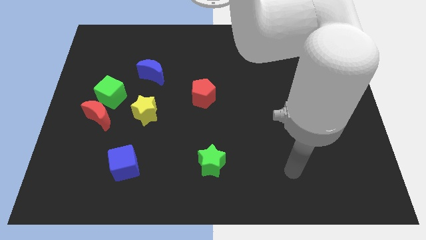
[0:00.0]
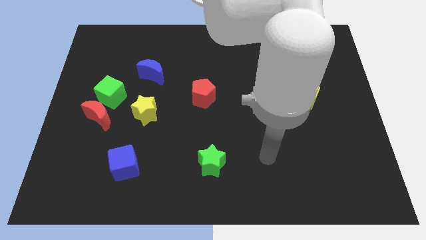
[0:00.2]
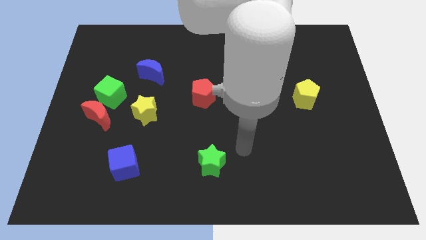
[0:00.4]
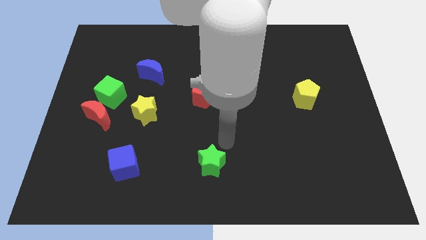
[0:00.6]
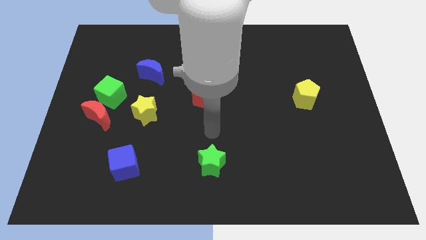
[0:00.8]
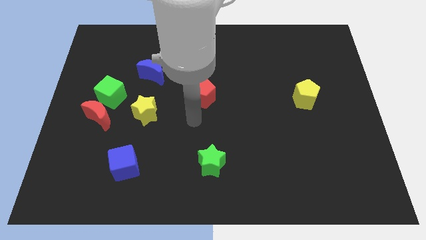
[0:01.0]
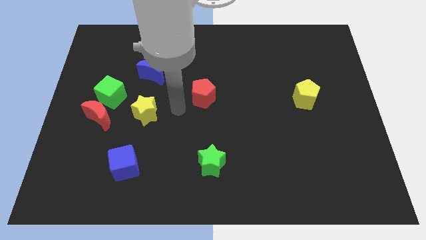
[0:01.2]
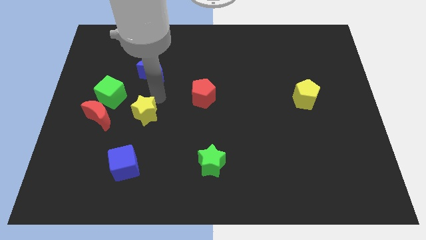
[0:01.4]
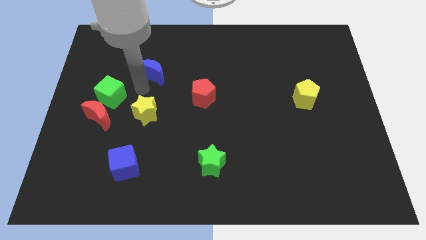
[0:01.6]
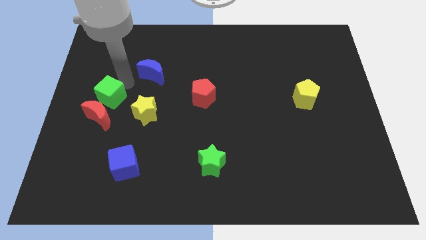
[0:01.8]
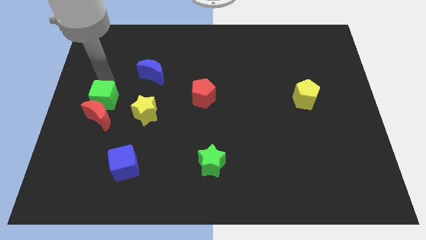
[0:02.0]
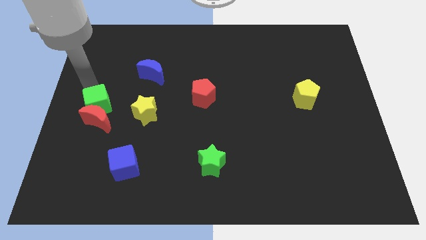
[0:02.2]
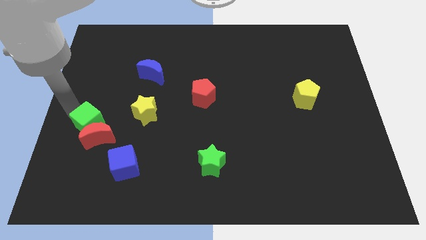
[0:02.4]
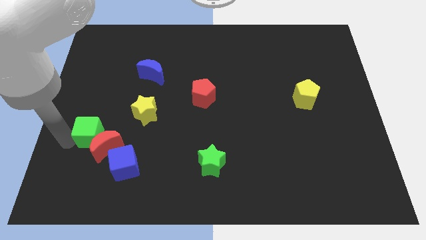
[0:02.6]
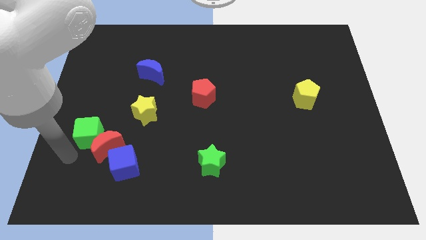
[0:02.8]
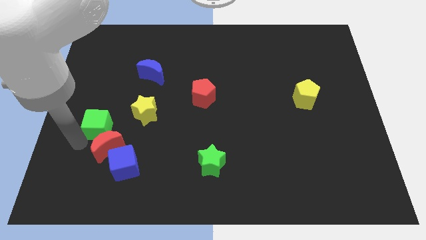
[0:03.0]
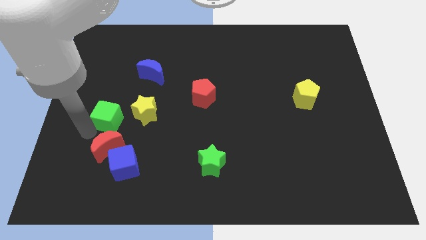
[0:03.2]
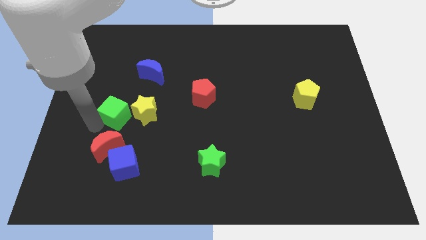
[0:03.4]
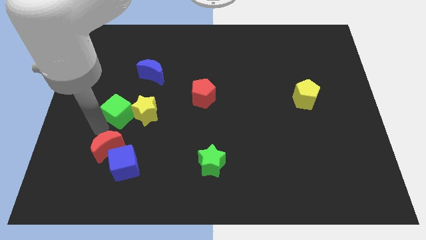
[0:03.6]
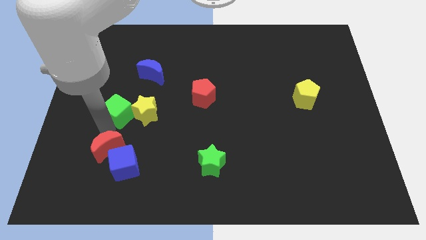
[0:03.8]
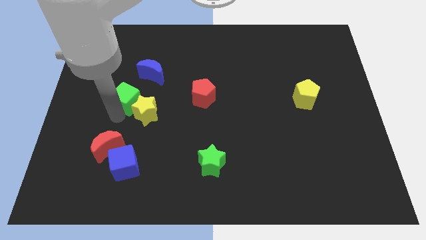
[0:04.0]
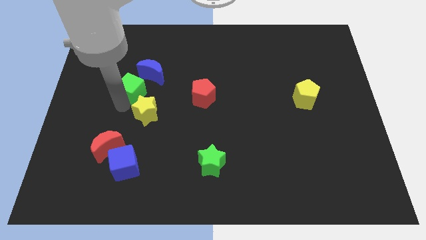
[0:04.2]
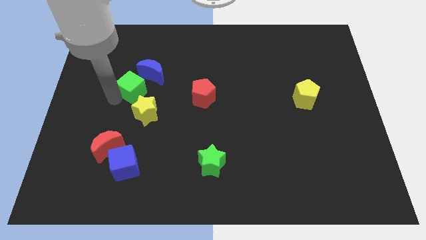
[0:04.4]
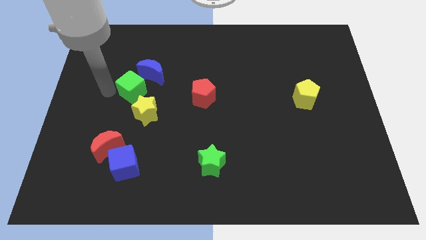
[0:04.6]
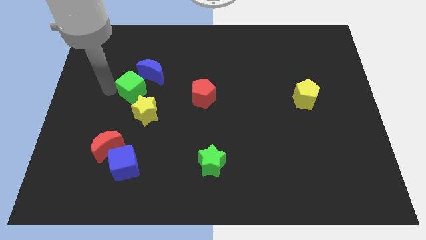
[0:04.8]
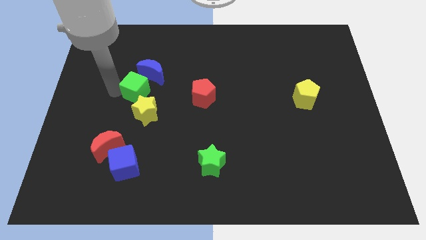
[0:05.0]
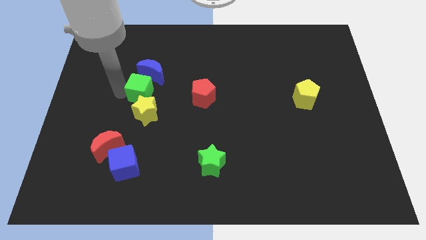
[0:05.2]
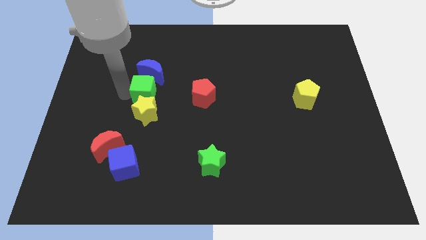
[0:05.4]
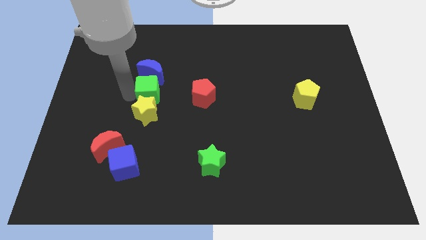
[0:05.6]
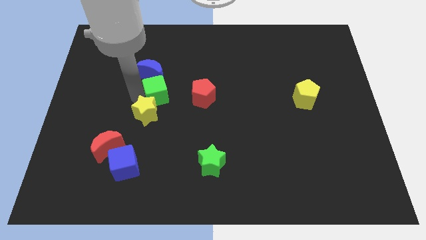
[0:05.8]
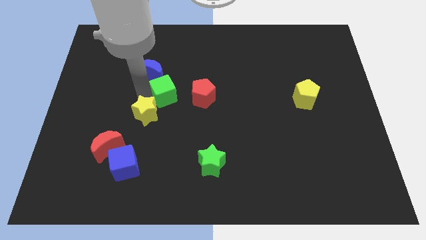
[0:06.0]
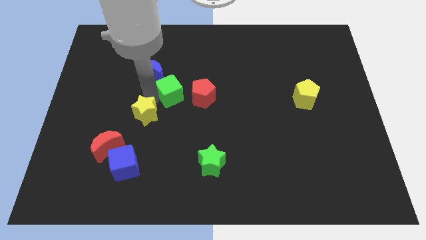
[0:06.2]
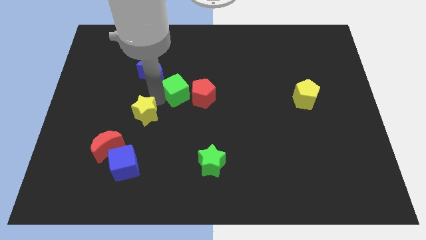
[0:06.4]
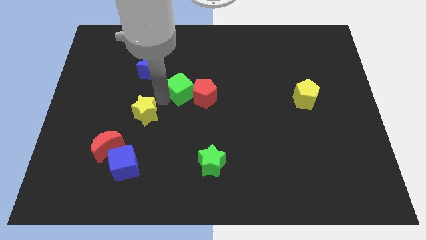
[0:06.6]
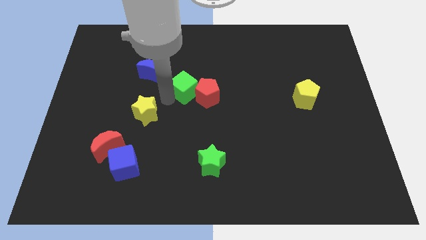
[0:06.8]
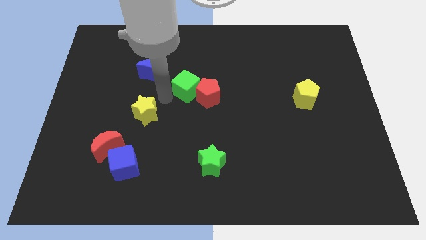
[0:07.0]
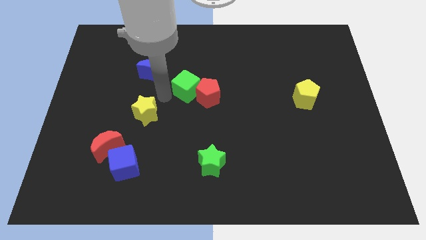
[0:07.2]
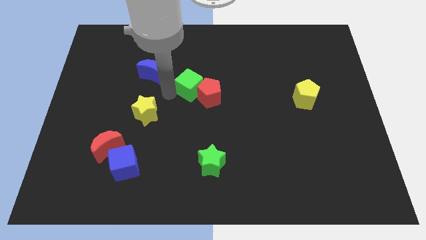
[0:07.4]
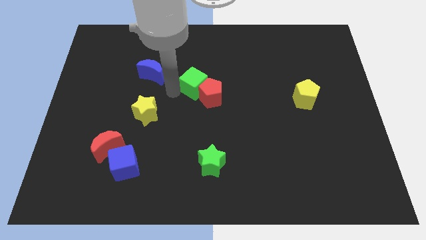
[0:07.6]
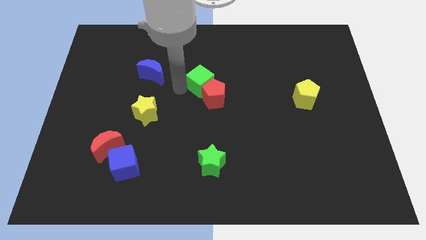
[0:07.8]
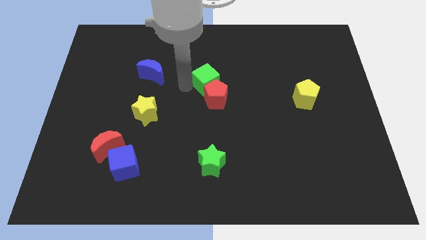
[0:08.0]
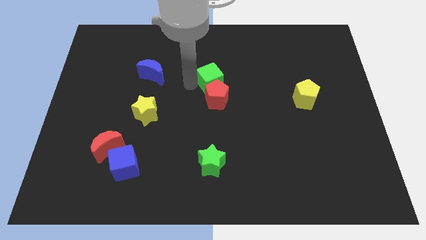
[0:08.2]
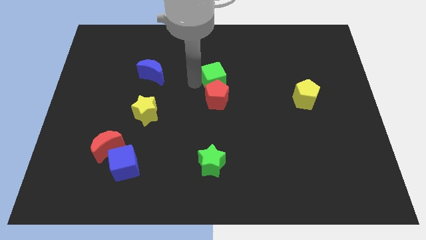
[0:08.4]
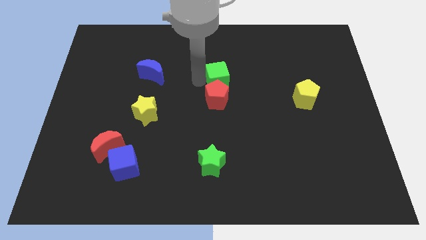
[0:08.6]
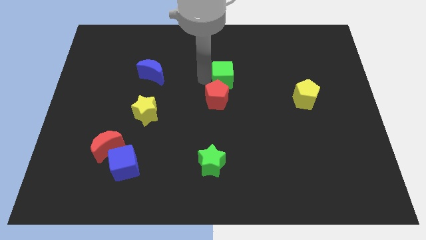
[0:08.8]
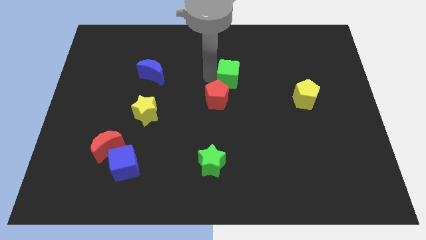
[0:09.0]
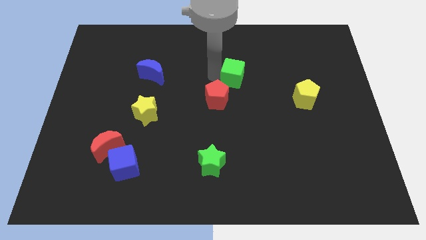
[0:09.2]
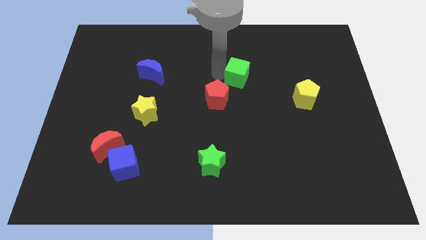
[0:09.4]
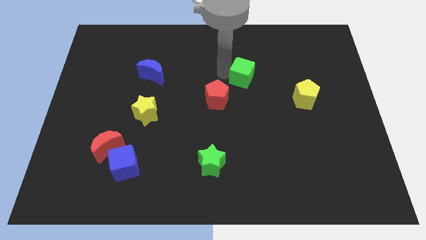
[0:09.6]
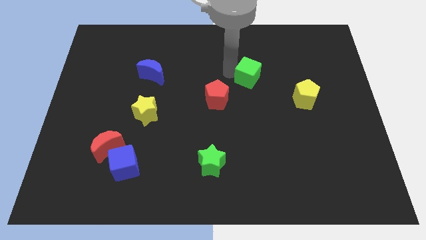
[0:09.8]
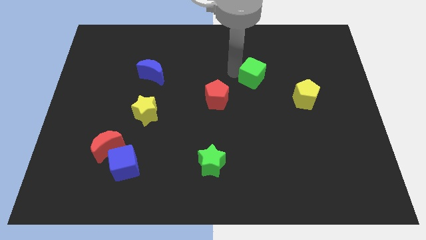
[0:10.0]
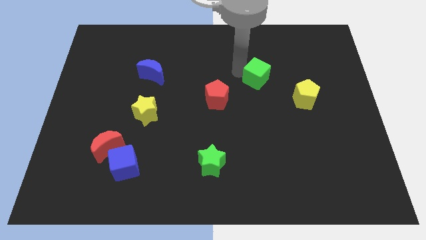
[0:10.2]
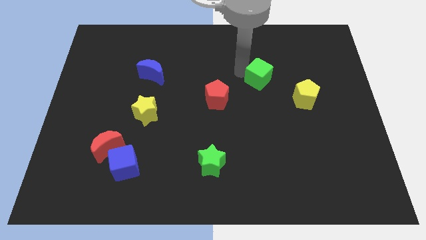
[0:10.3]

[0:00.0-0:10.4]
slide the green cube diagonally up and to the left of the yellow pentagon

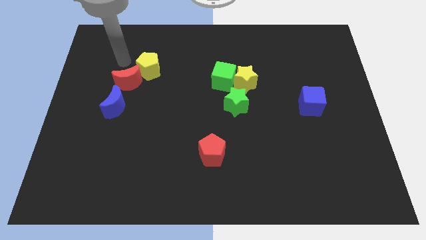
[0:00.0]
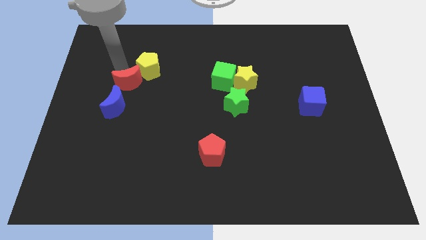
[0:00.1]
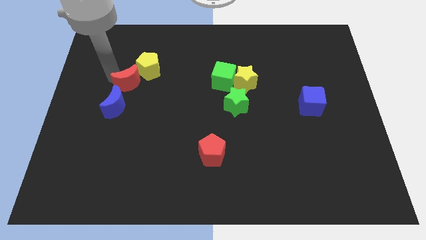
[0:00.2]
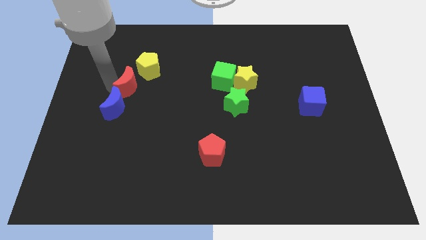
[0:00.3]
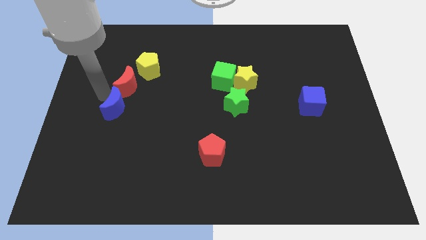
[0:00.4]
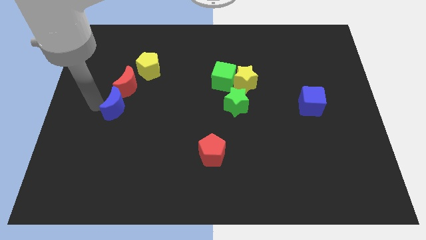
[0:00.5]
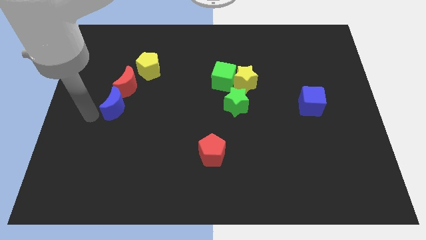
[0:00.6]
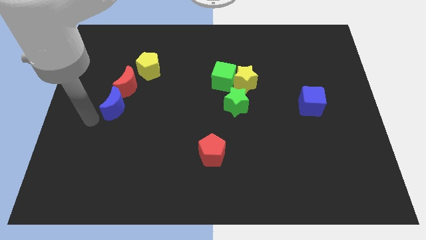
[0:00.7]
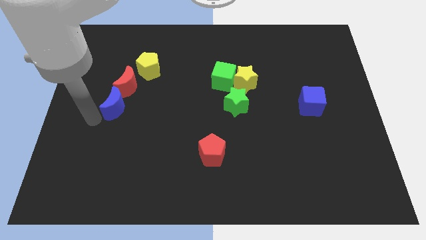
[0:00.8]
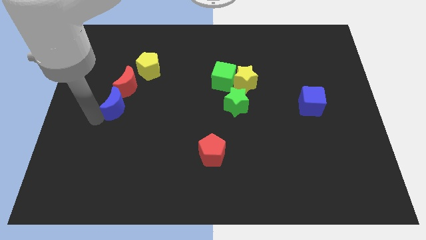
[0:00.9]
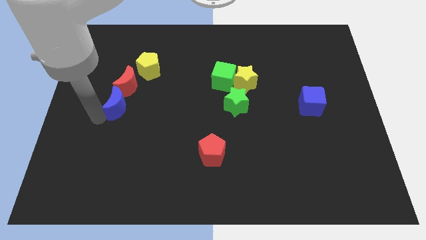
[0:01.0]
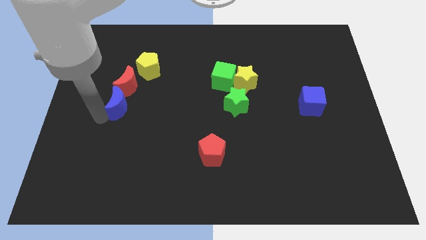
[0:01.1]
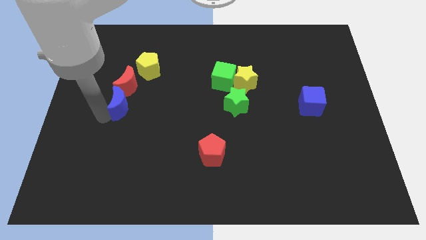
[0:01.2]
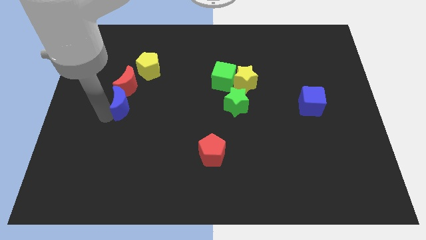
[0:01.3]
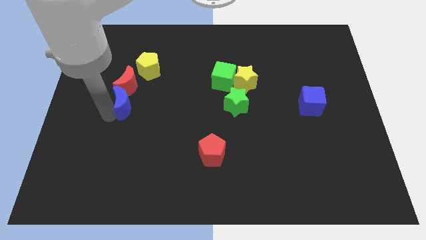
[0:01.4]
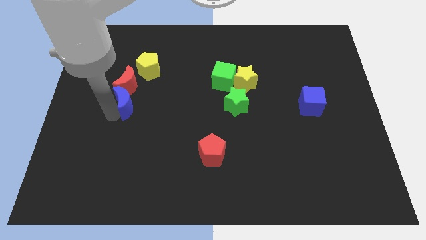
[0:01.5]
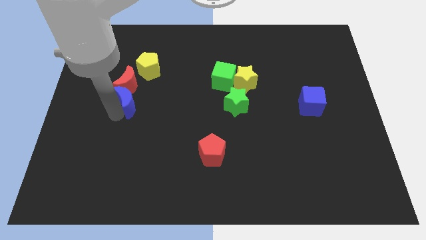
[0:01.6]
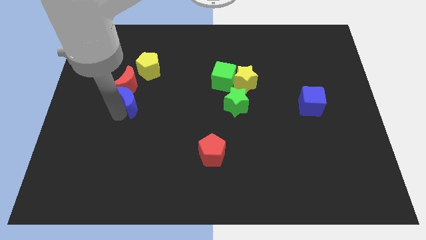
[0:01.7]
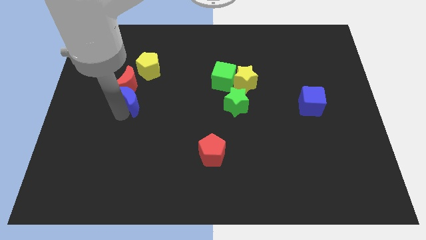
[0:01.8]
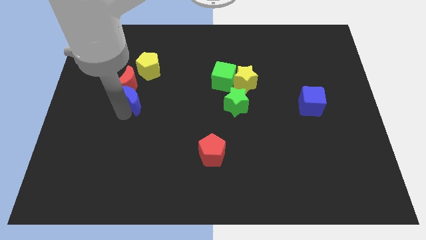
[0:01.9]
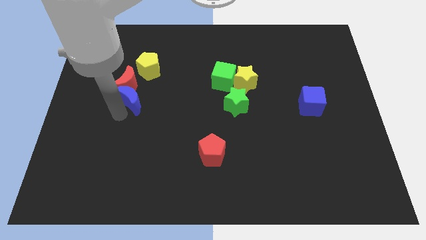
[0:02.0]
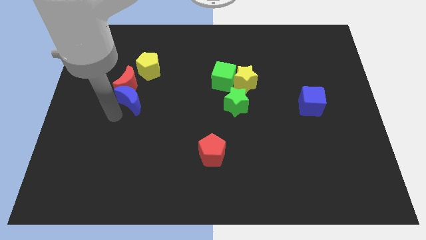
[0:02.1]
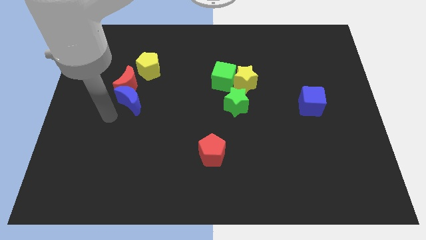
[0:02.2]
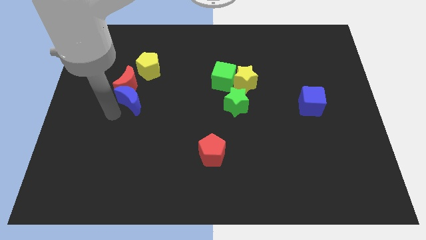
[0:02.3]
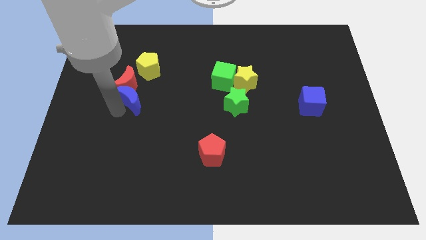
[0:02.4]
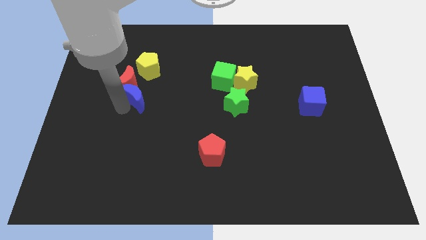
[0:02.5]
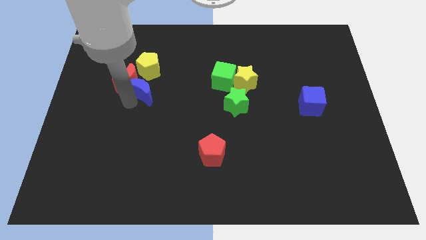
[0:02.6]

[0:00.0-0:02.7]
push the blue moon right of the red moon
